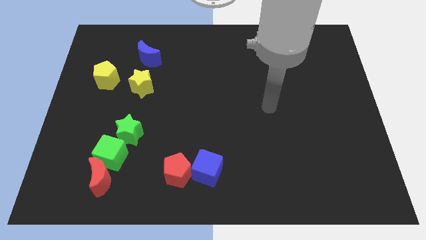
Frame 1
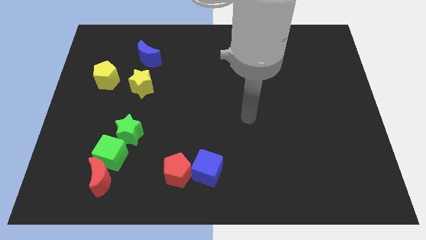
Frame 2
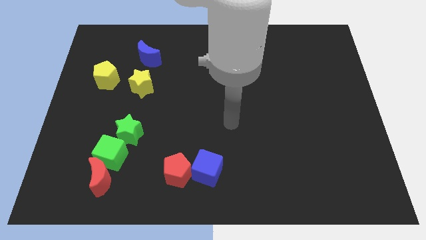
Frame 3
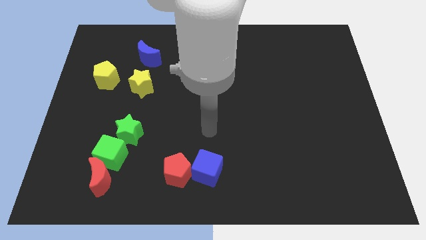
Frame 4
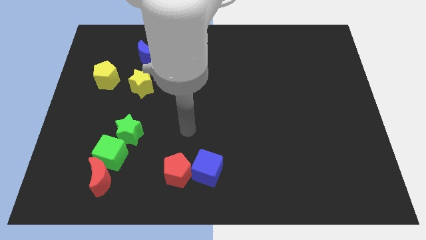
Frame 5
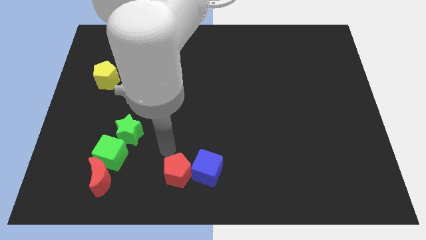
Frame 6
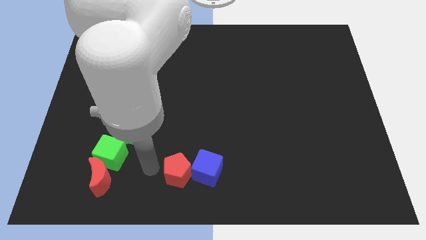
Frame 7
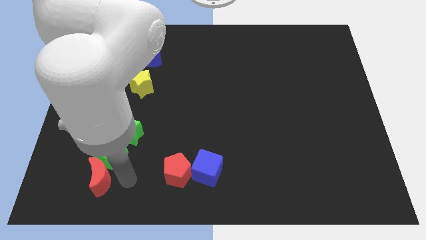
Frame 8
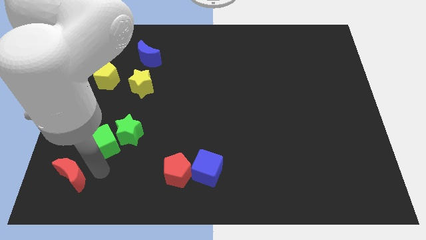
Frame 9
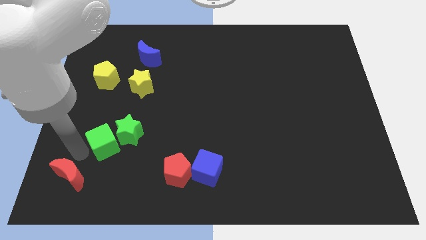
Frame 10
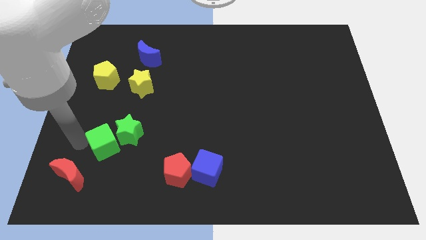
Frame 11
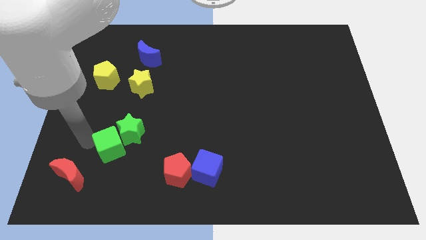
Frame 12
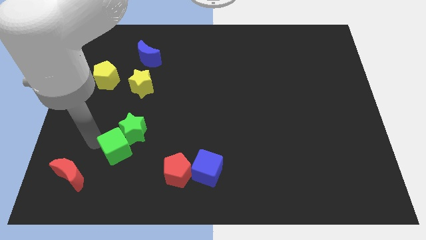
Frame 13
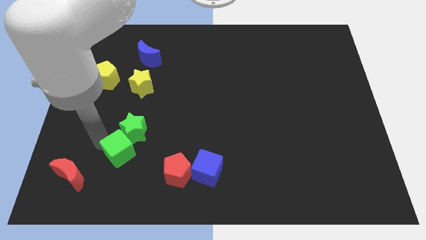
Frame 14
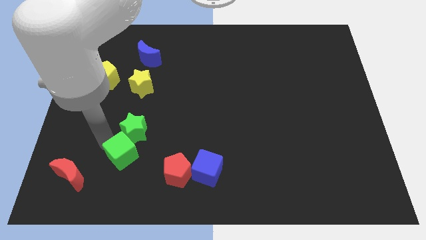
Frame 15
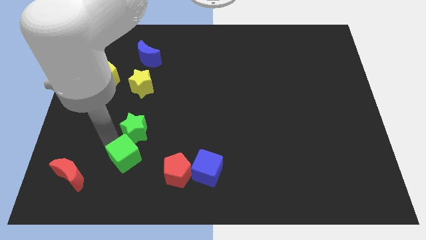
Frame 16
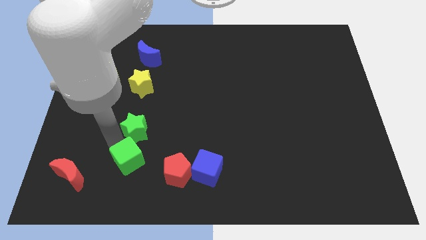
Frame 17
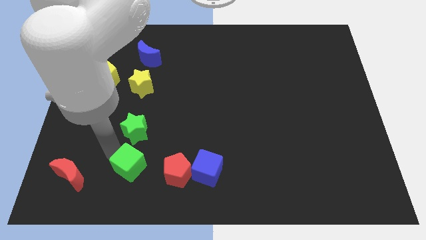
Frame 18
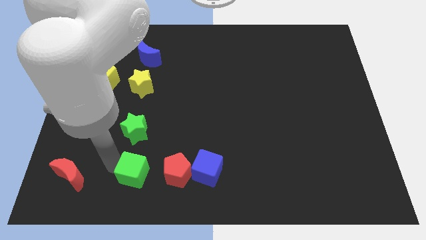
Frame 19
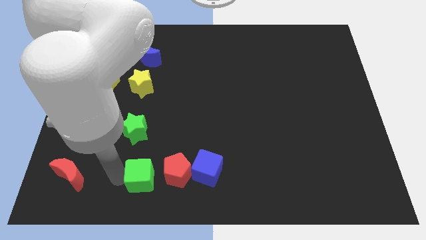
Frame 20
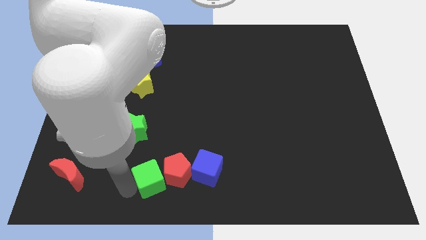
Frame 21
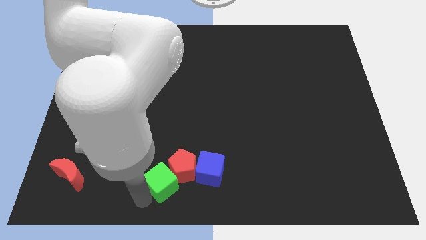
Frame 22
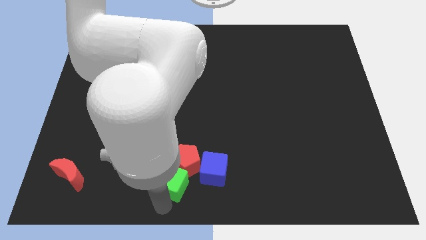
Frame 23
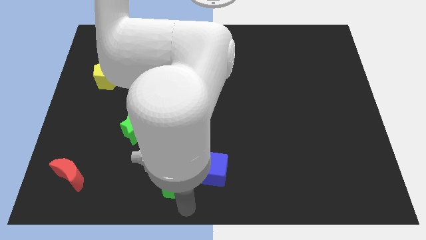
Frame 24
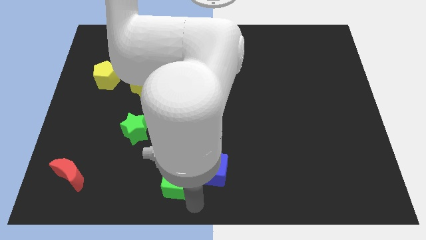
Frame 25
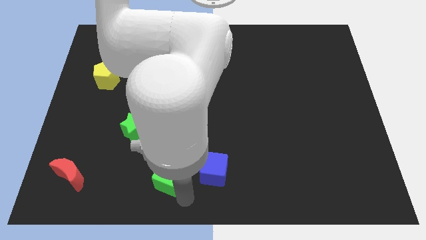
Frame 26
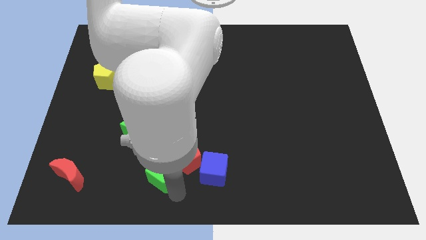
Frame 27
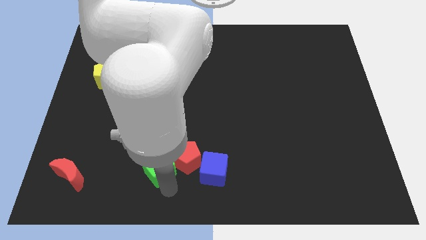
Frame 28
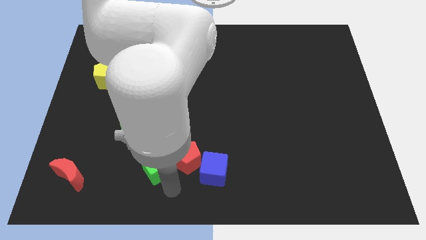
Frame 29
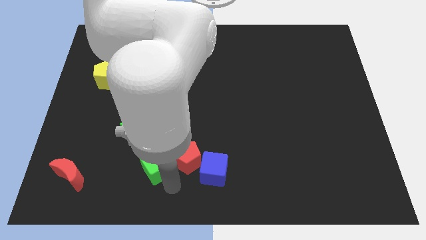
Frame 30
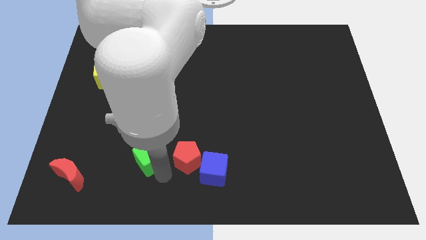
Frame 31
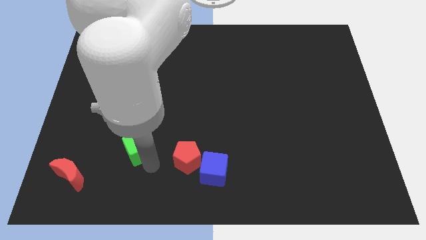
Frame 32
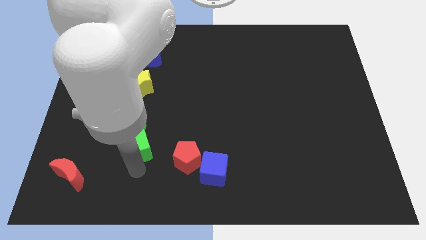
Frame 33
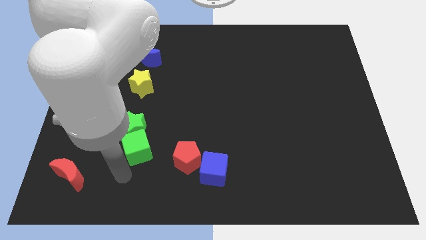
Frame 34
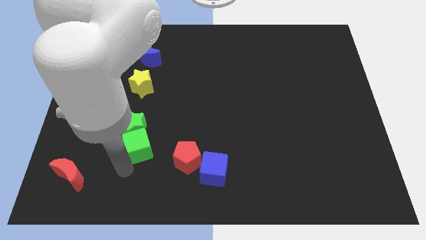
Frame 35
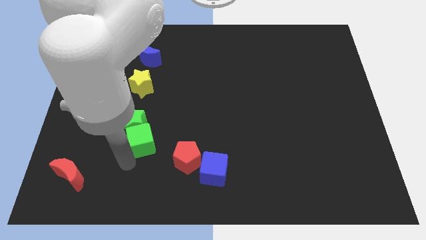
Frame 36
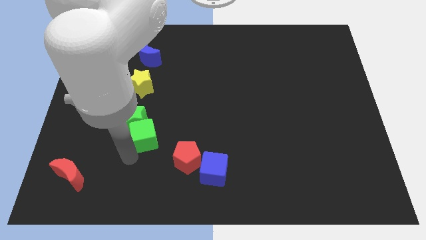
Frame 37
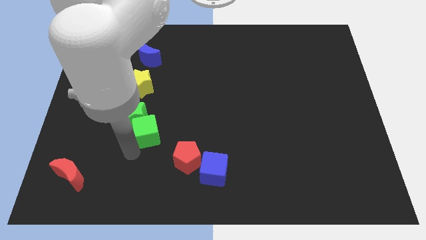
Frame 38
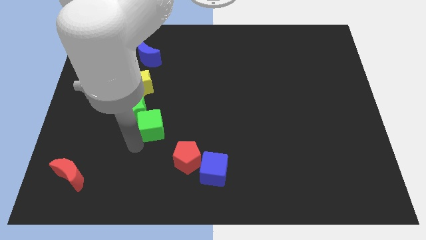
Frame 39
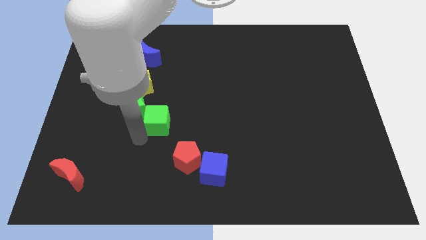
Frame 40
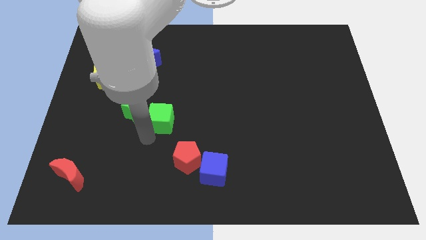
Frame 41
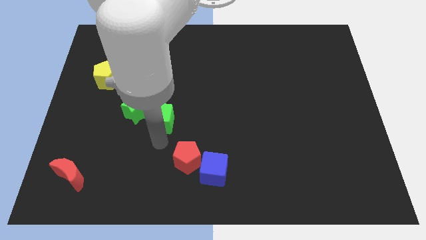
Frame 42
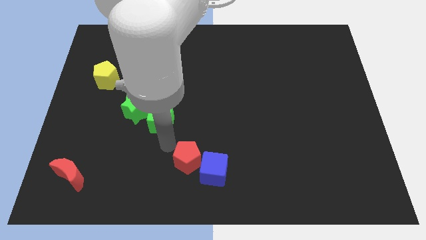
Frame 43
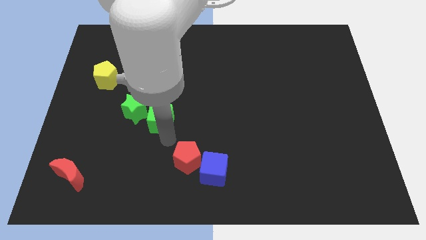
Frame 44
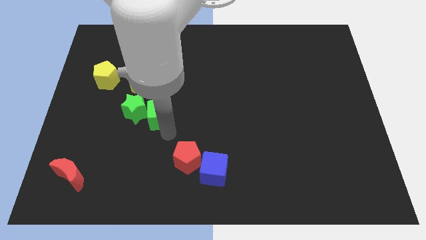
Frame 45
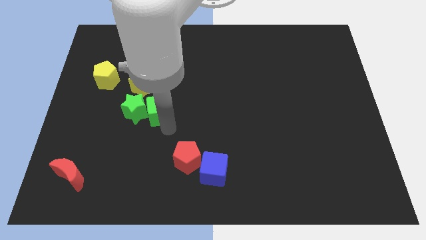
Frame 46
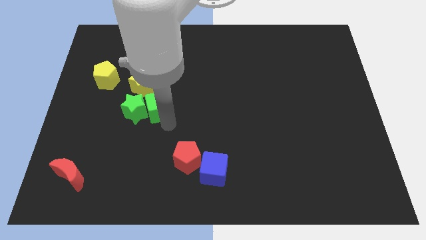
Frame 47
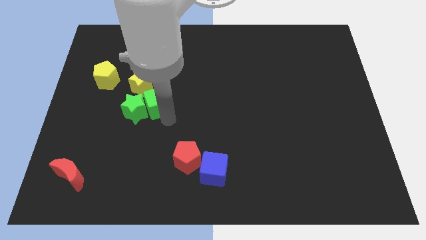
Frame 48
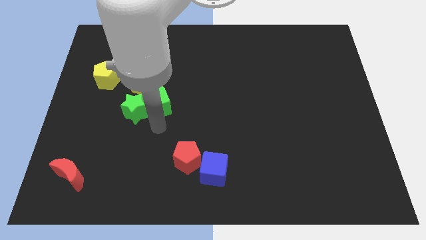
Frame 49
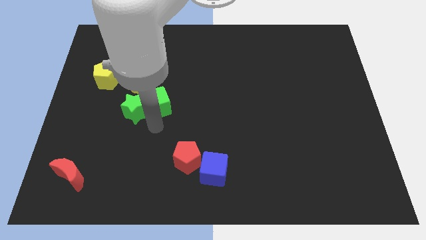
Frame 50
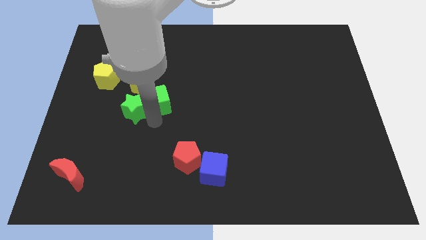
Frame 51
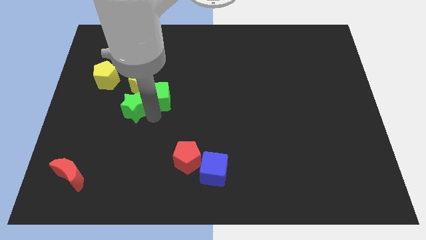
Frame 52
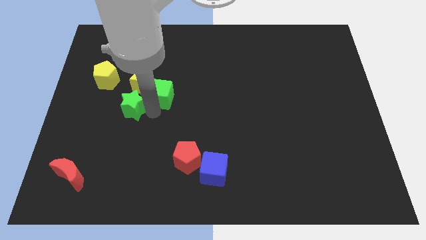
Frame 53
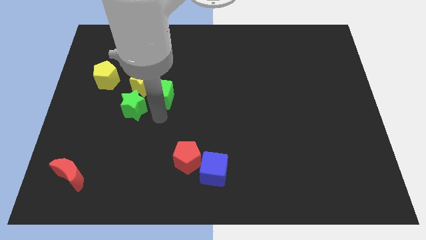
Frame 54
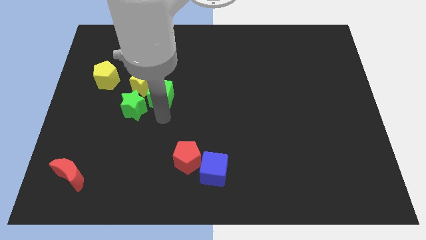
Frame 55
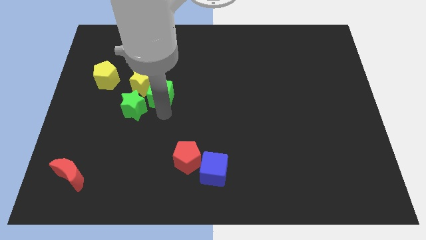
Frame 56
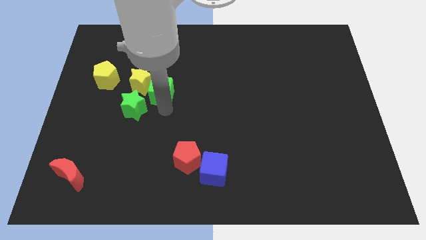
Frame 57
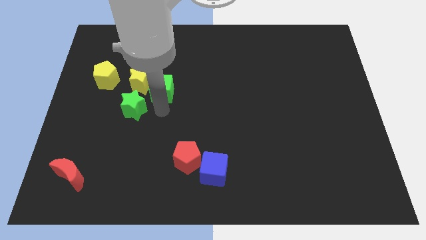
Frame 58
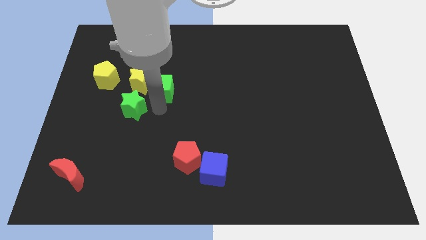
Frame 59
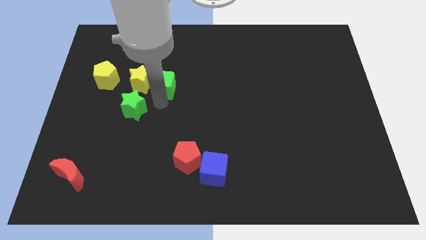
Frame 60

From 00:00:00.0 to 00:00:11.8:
slide the green cube diagonally down and to the right of the blue moon

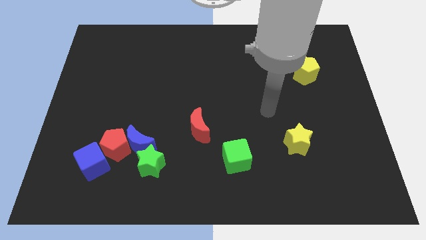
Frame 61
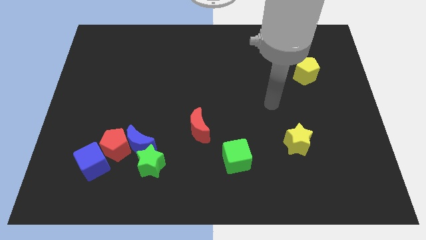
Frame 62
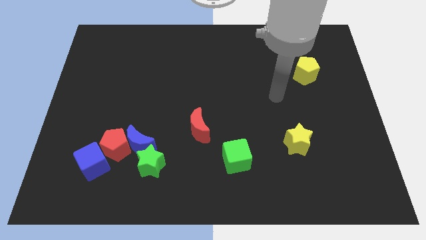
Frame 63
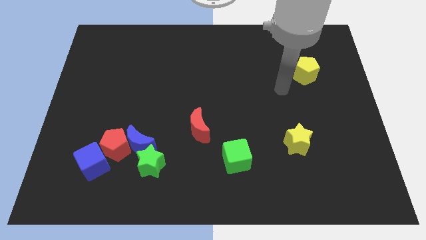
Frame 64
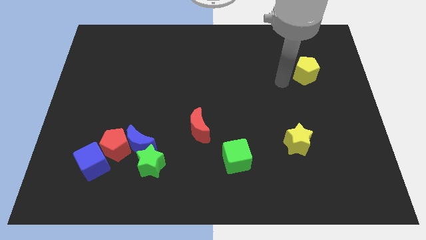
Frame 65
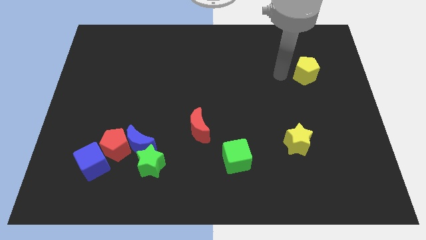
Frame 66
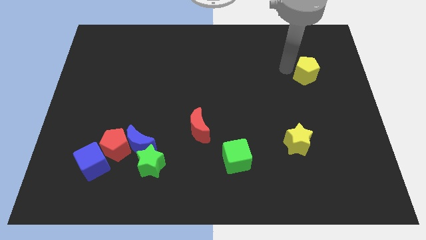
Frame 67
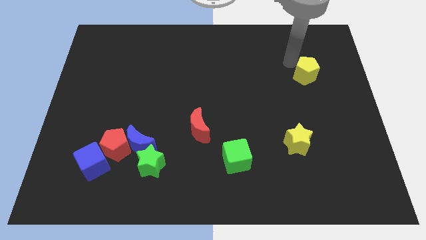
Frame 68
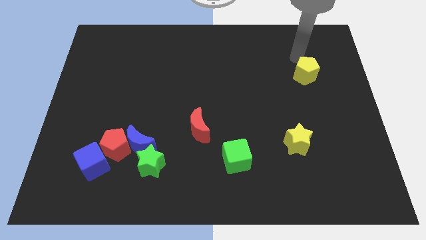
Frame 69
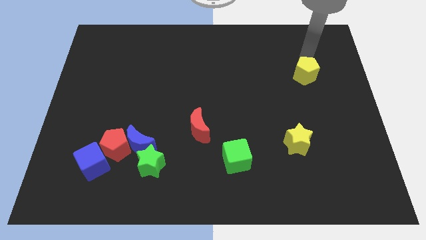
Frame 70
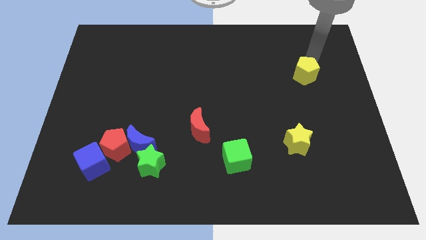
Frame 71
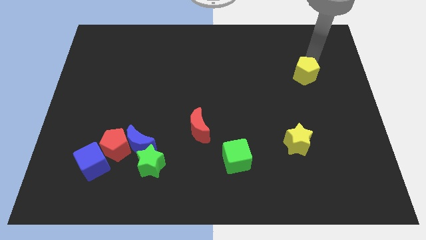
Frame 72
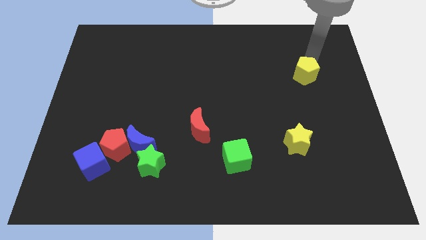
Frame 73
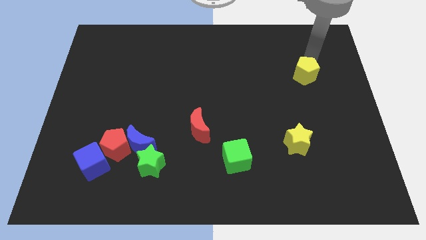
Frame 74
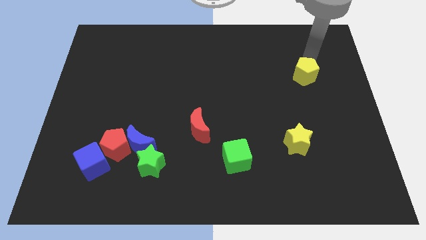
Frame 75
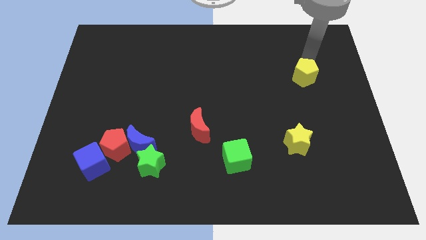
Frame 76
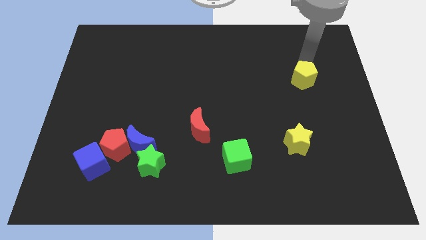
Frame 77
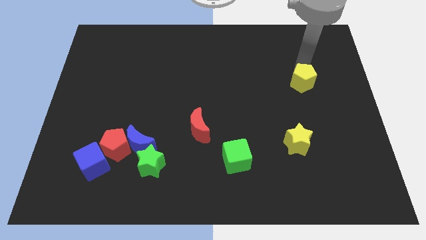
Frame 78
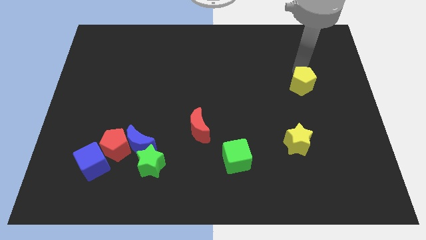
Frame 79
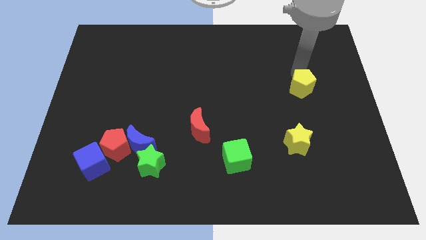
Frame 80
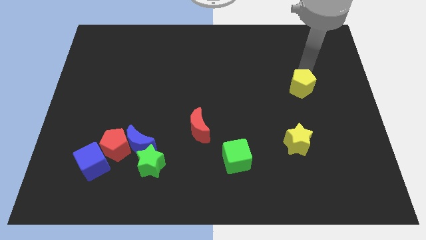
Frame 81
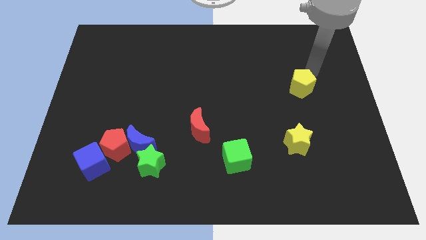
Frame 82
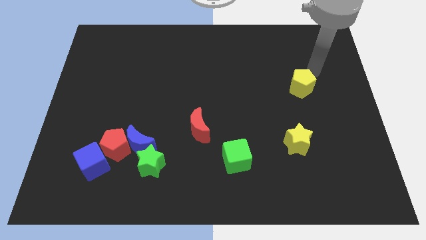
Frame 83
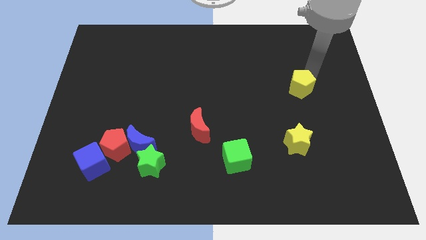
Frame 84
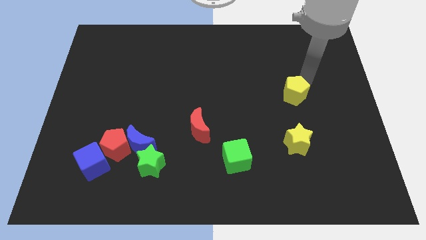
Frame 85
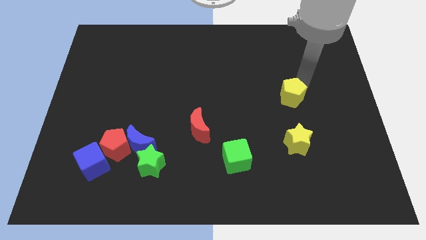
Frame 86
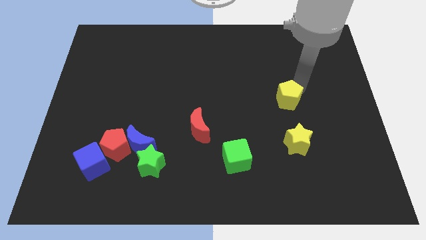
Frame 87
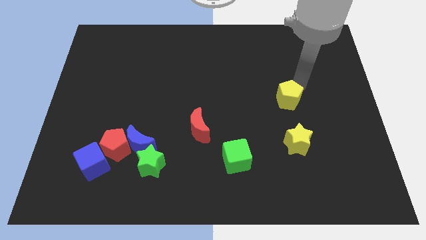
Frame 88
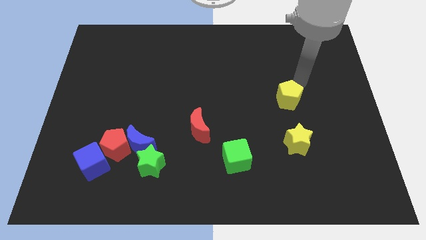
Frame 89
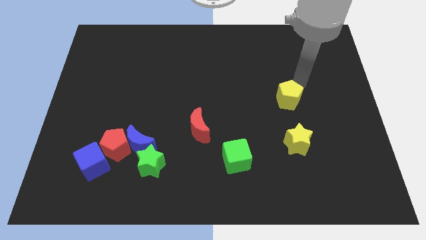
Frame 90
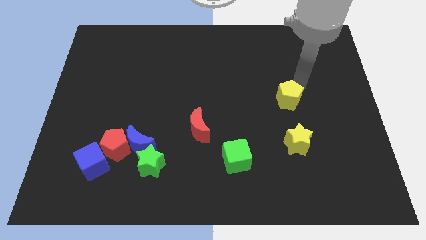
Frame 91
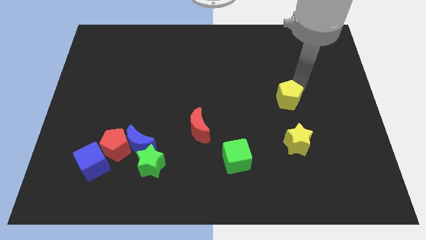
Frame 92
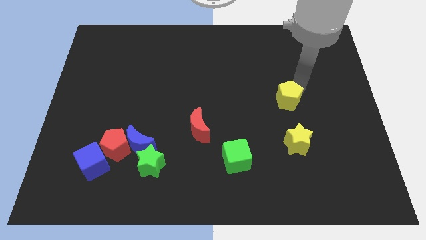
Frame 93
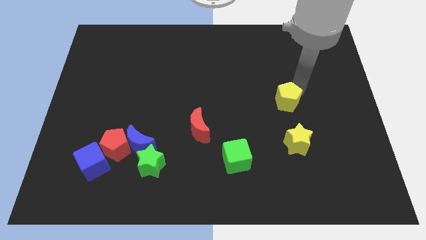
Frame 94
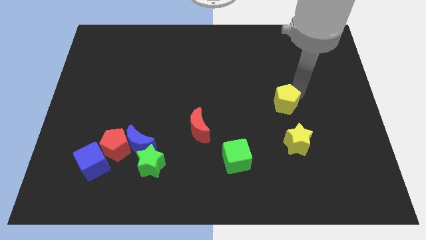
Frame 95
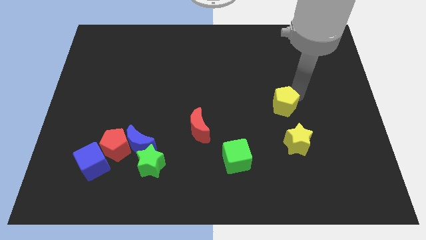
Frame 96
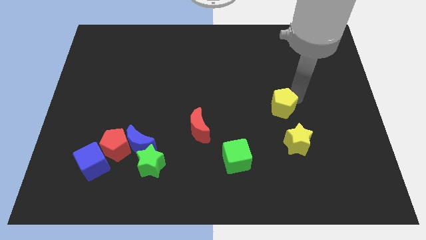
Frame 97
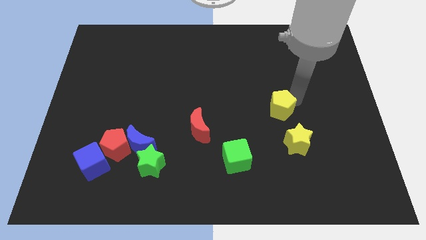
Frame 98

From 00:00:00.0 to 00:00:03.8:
put the yellow pentagon to the top left of the yellow star
